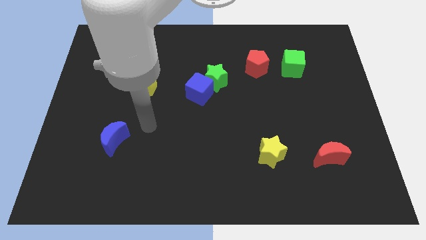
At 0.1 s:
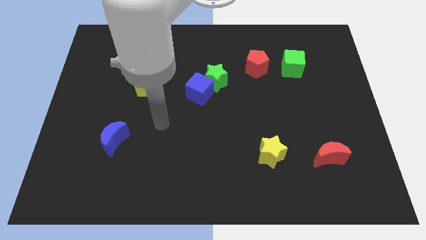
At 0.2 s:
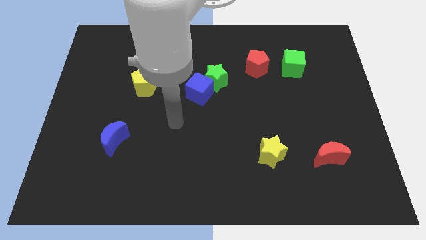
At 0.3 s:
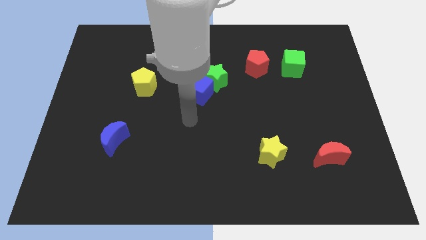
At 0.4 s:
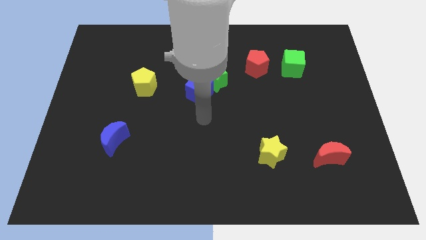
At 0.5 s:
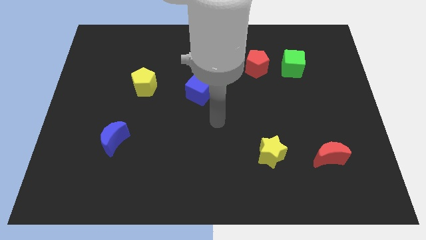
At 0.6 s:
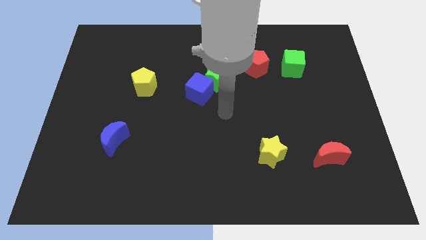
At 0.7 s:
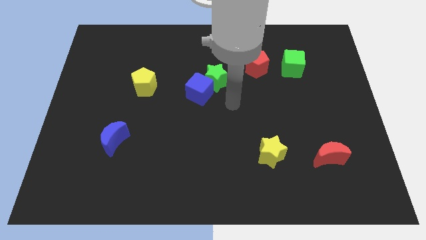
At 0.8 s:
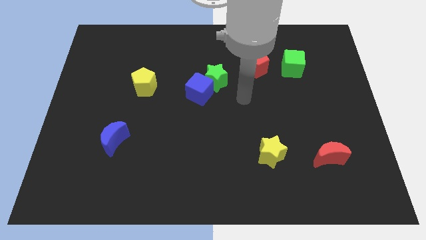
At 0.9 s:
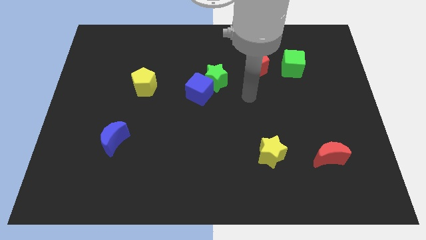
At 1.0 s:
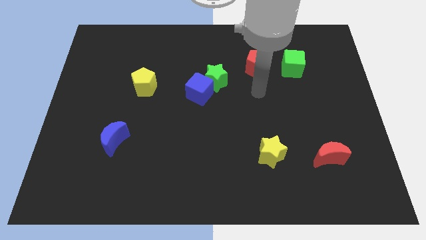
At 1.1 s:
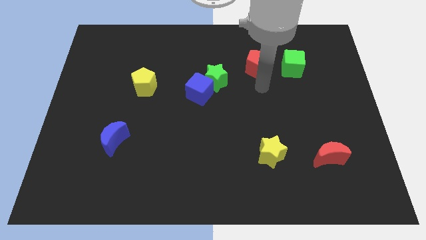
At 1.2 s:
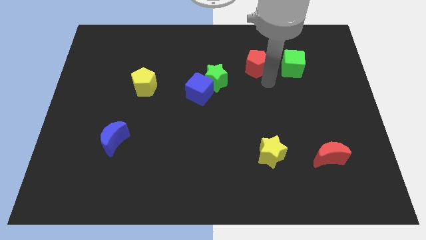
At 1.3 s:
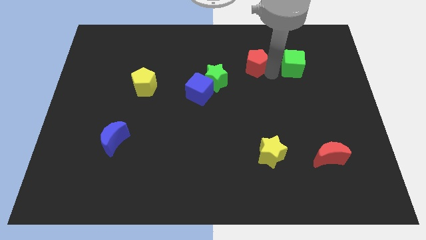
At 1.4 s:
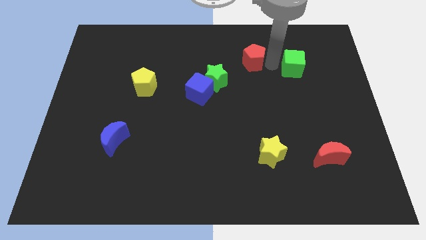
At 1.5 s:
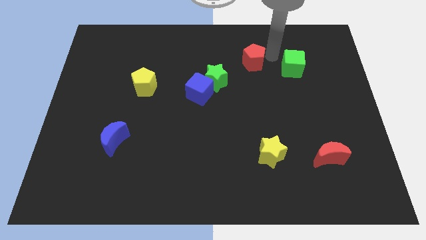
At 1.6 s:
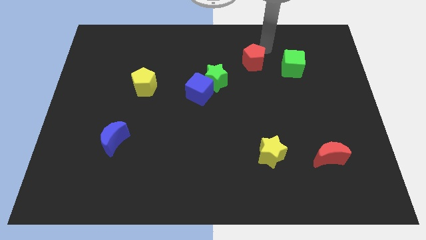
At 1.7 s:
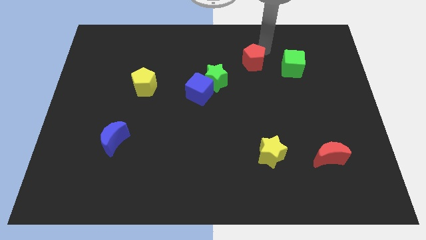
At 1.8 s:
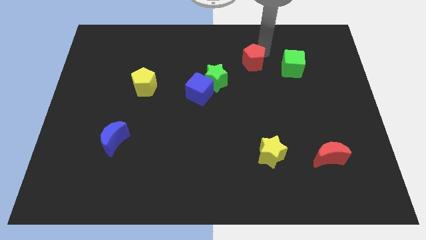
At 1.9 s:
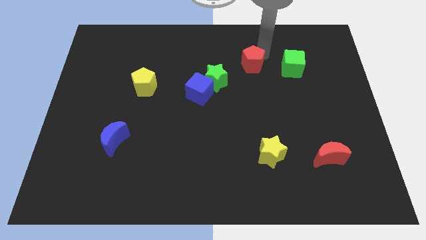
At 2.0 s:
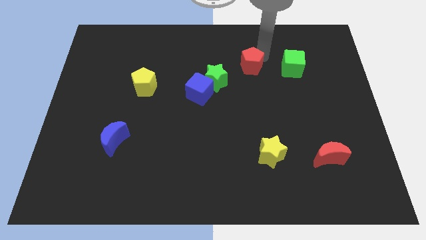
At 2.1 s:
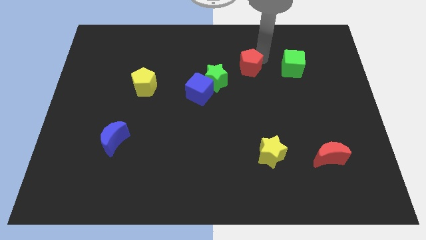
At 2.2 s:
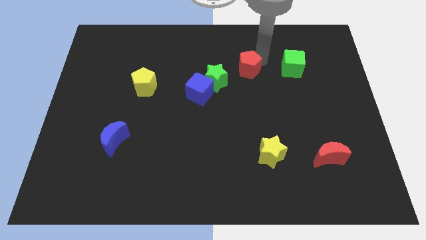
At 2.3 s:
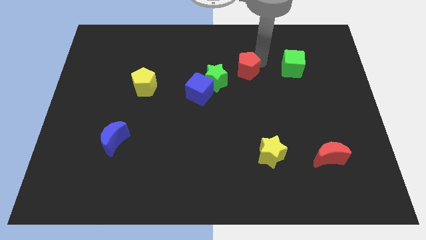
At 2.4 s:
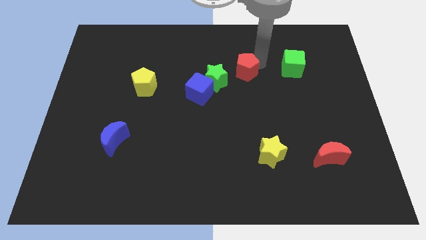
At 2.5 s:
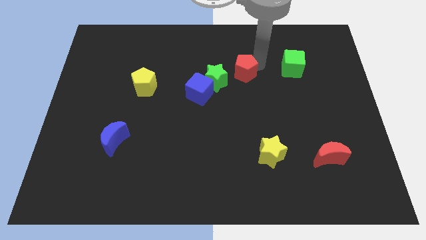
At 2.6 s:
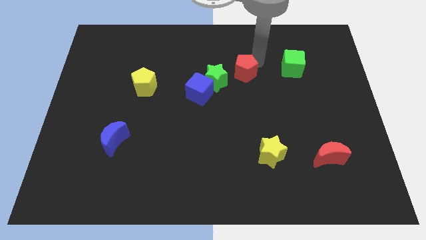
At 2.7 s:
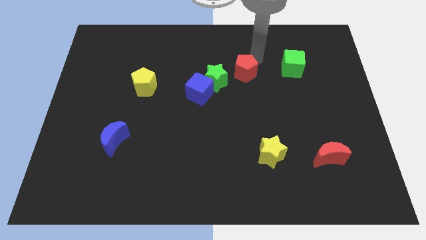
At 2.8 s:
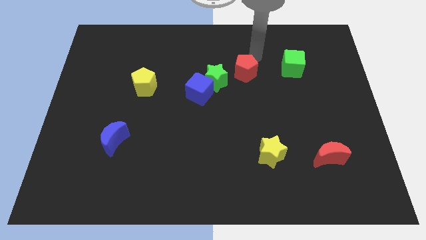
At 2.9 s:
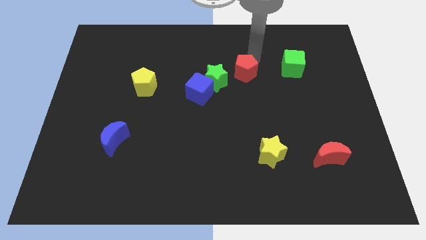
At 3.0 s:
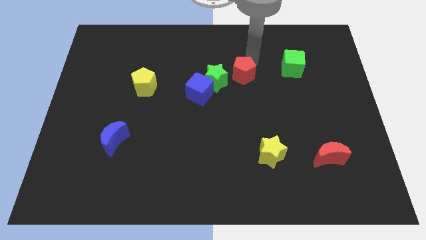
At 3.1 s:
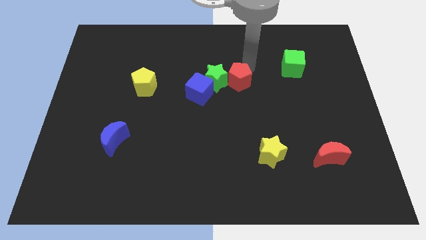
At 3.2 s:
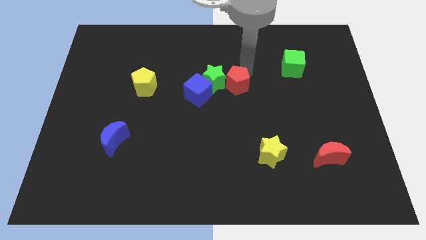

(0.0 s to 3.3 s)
slightly push the red pentagon down and to the left

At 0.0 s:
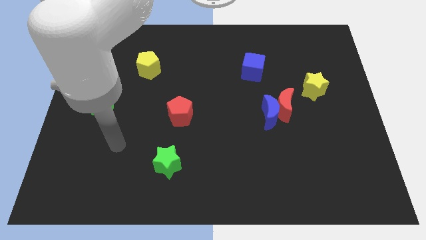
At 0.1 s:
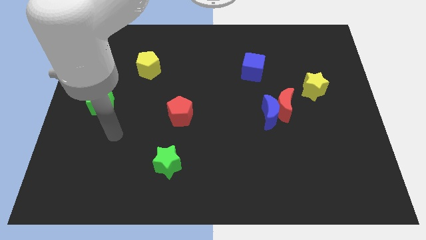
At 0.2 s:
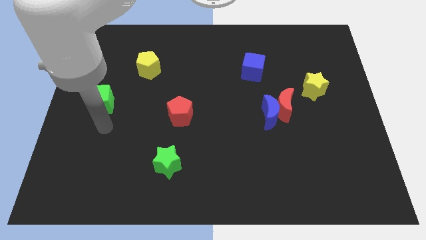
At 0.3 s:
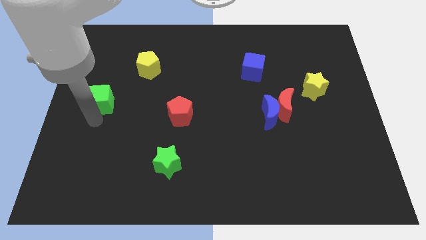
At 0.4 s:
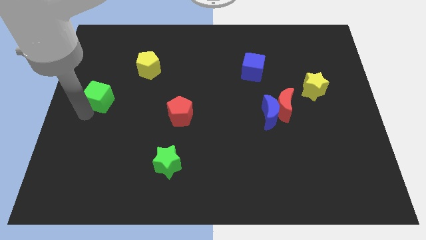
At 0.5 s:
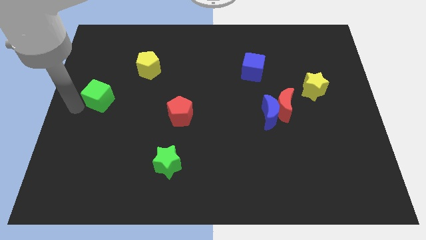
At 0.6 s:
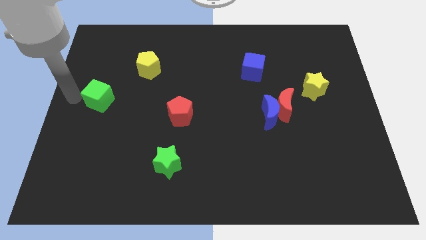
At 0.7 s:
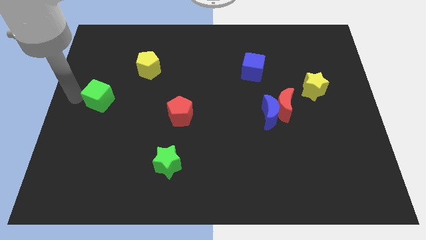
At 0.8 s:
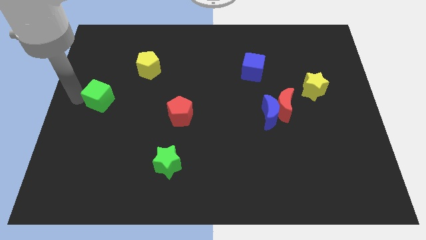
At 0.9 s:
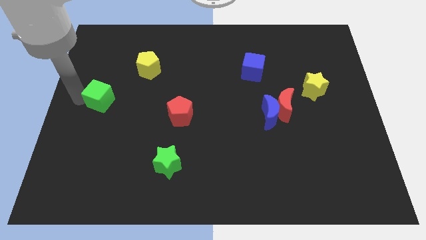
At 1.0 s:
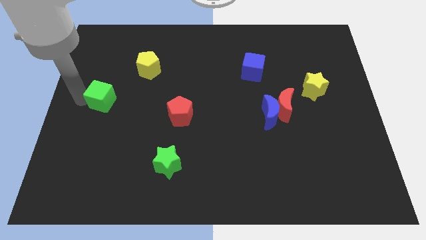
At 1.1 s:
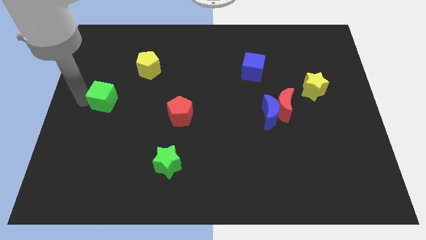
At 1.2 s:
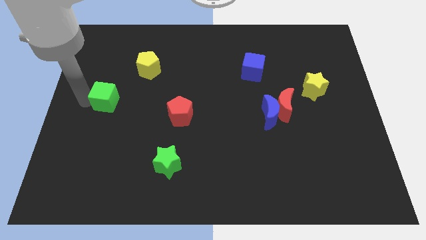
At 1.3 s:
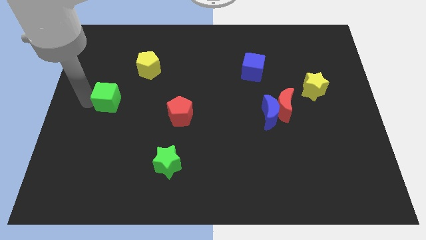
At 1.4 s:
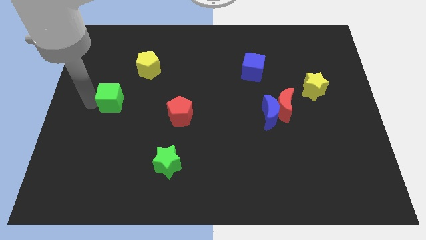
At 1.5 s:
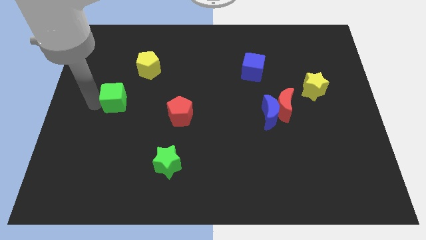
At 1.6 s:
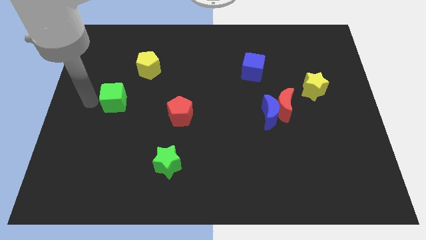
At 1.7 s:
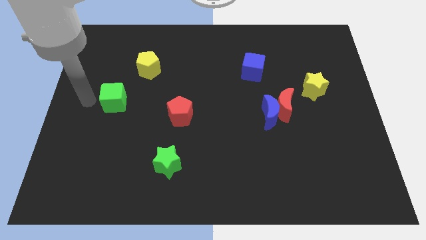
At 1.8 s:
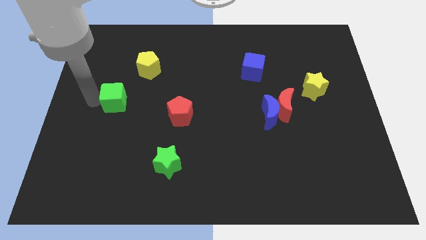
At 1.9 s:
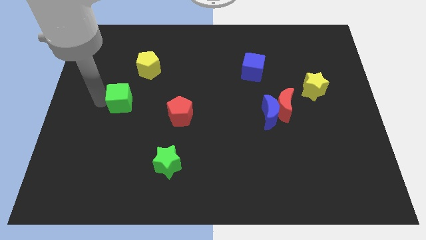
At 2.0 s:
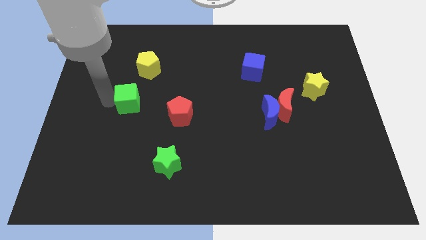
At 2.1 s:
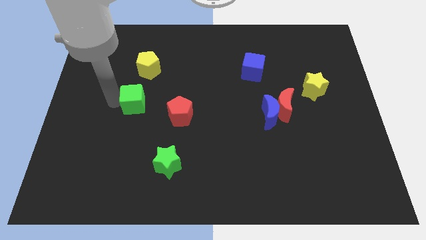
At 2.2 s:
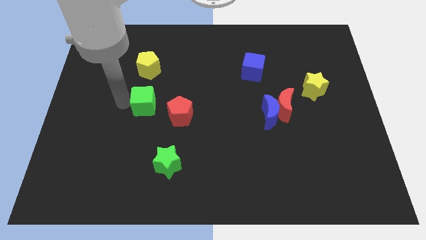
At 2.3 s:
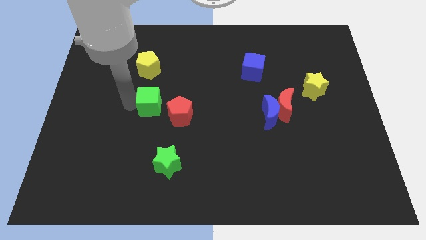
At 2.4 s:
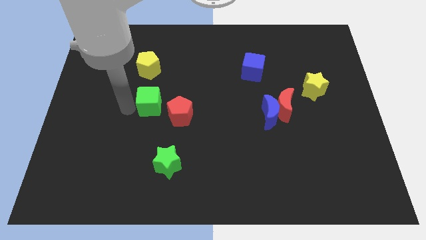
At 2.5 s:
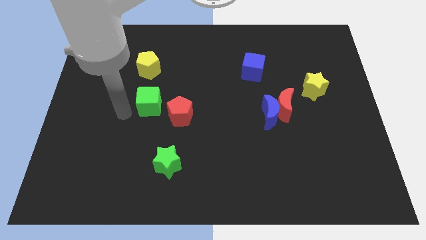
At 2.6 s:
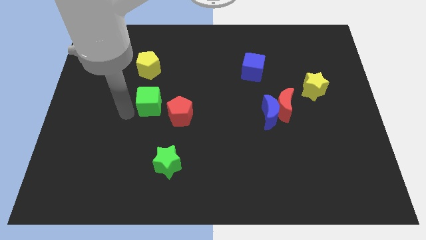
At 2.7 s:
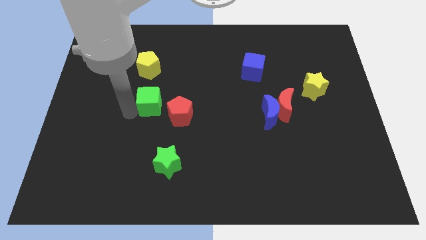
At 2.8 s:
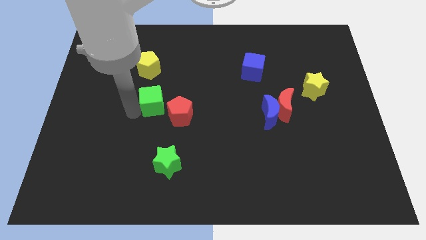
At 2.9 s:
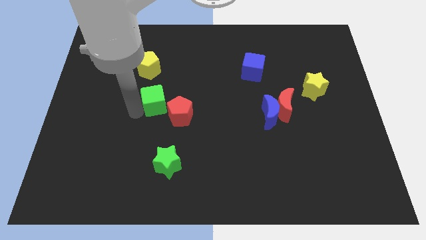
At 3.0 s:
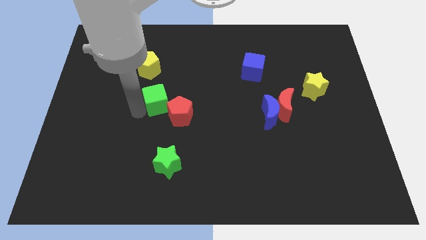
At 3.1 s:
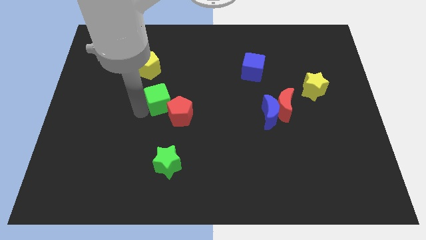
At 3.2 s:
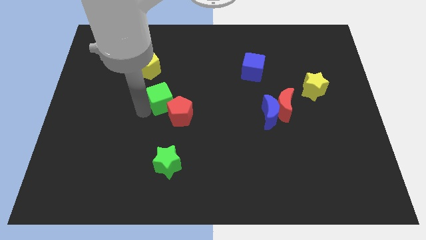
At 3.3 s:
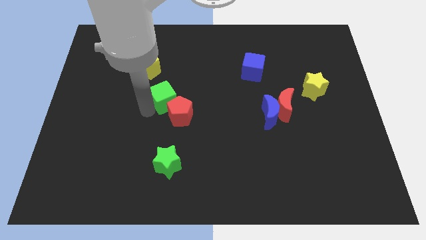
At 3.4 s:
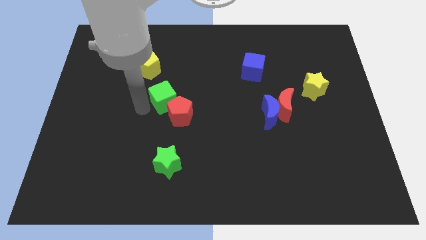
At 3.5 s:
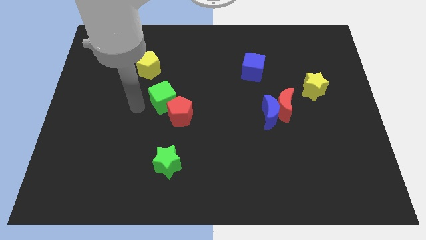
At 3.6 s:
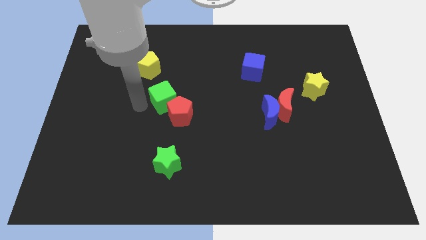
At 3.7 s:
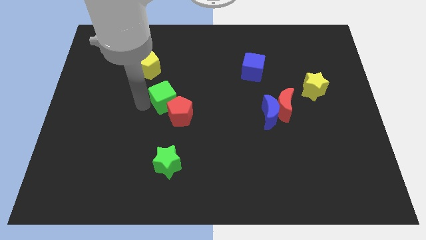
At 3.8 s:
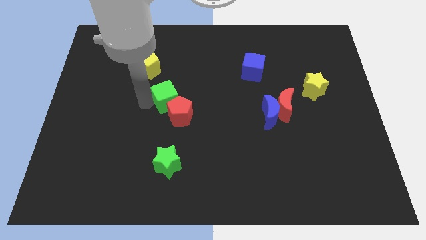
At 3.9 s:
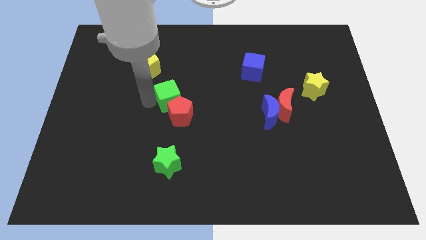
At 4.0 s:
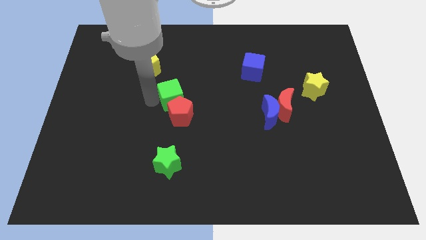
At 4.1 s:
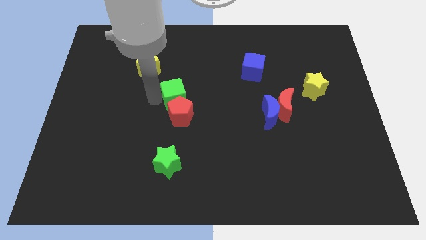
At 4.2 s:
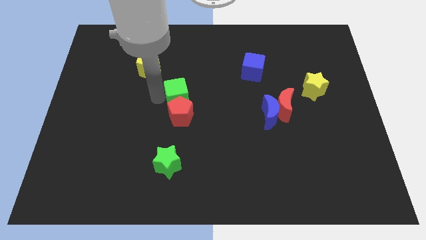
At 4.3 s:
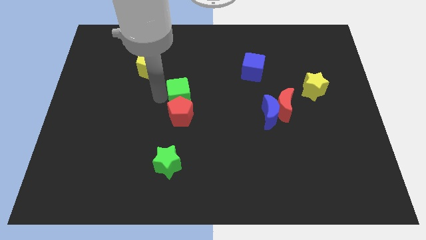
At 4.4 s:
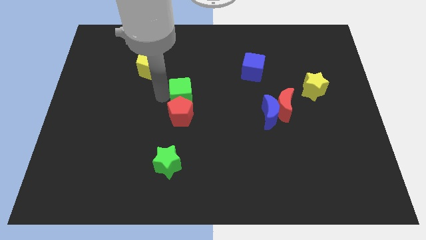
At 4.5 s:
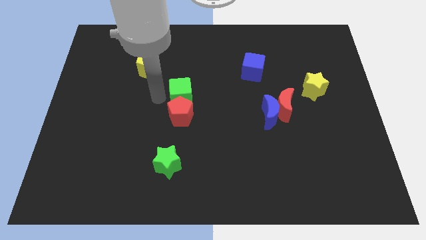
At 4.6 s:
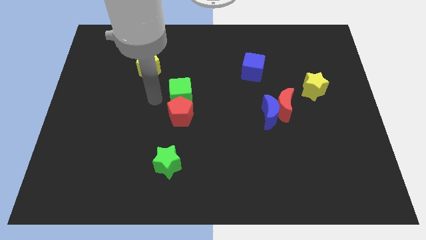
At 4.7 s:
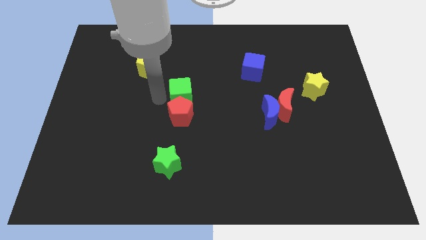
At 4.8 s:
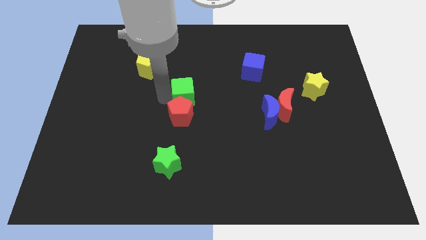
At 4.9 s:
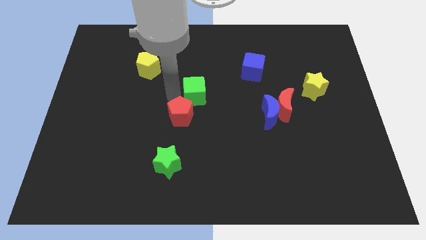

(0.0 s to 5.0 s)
push the green cube to the right
